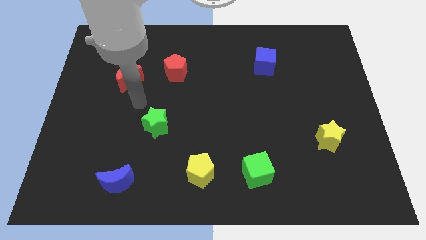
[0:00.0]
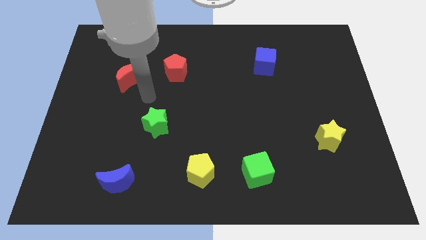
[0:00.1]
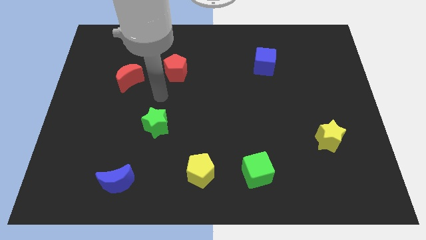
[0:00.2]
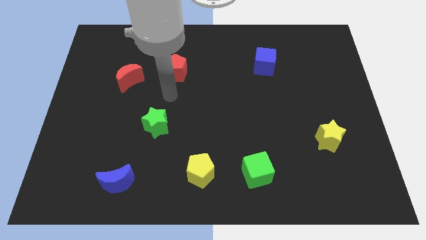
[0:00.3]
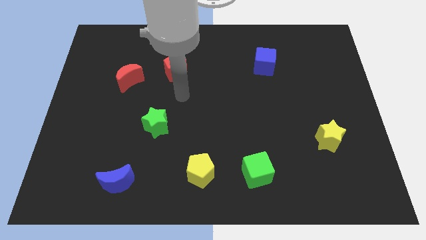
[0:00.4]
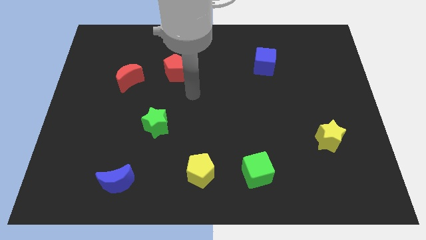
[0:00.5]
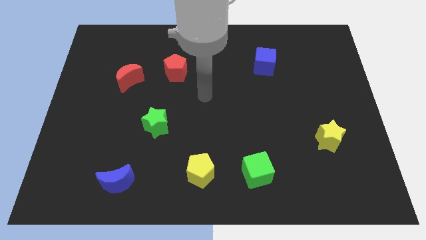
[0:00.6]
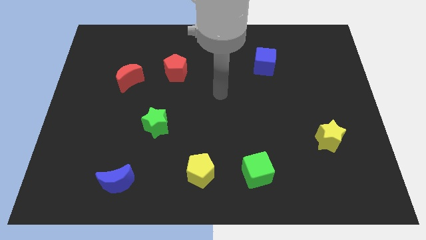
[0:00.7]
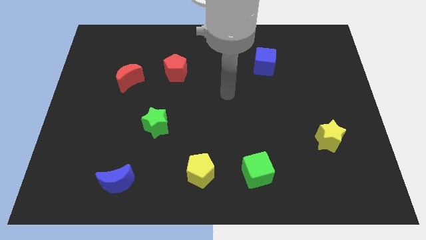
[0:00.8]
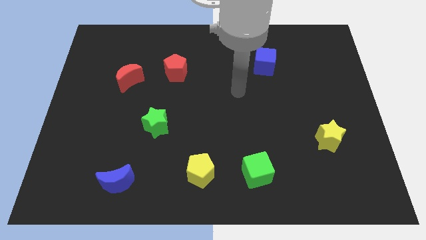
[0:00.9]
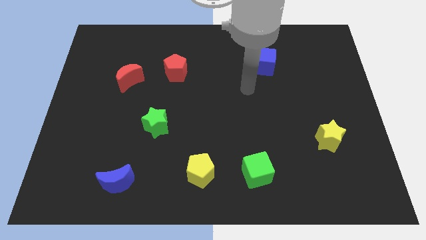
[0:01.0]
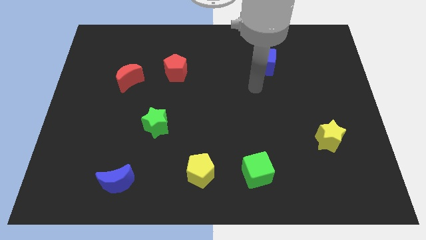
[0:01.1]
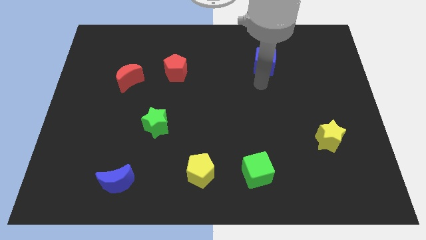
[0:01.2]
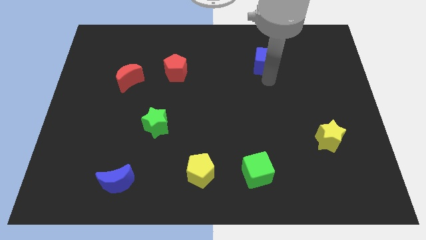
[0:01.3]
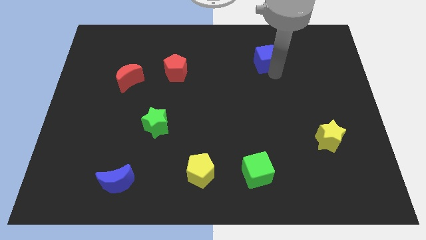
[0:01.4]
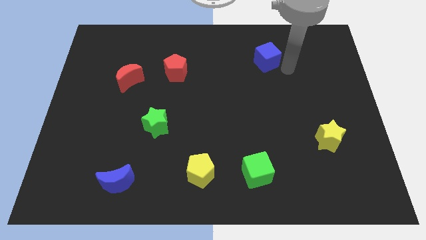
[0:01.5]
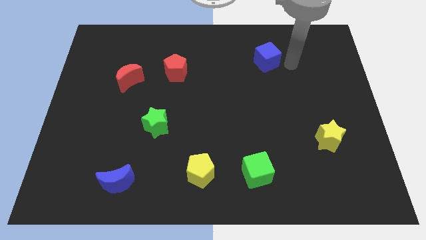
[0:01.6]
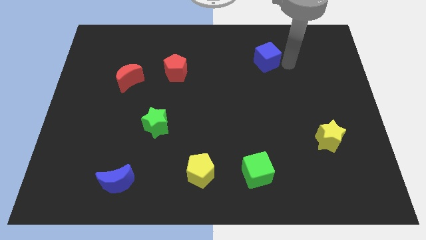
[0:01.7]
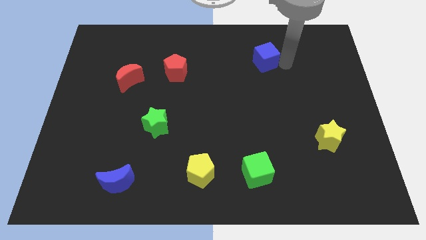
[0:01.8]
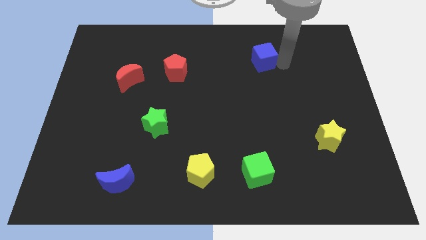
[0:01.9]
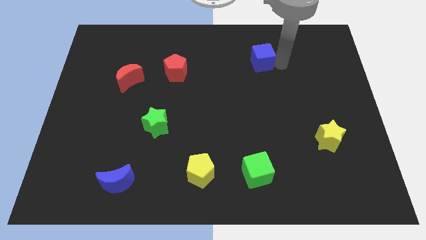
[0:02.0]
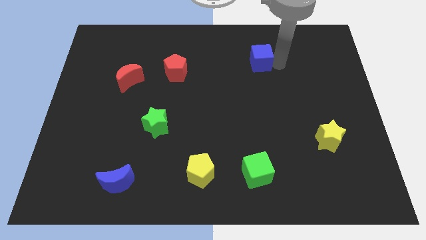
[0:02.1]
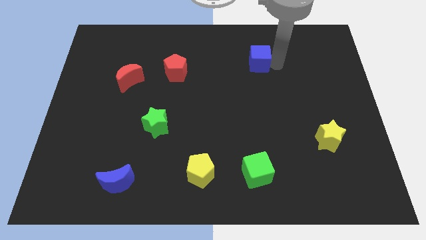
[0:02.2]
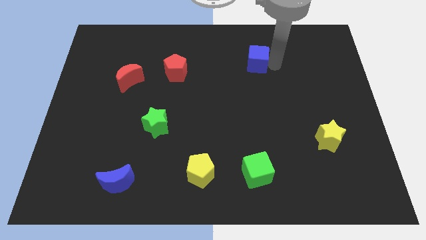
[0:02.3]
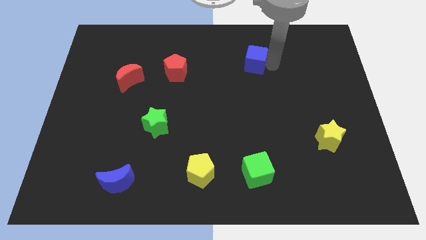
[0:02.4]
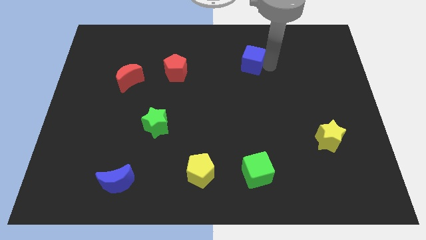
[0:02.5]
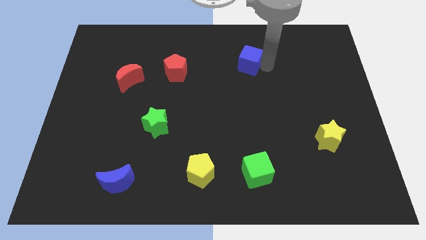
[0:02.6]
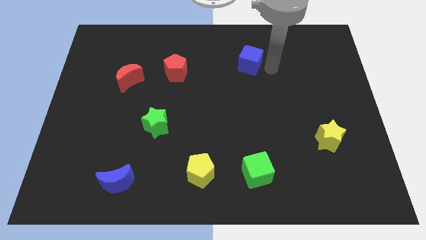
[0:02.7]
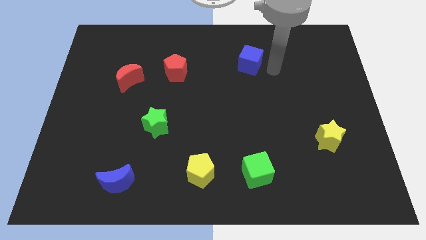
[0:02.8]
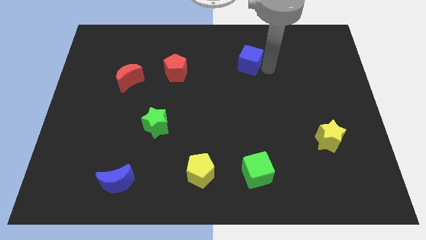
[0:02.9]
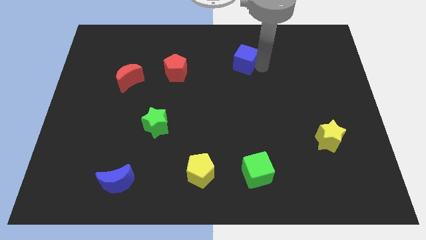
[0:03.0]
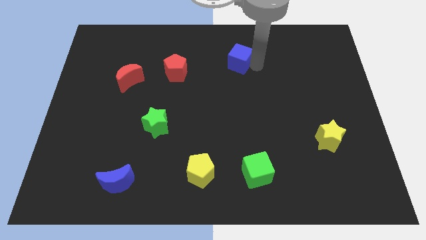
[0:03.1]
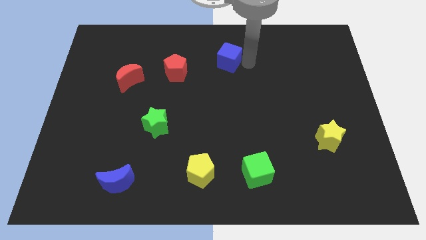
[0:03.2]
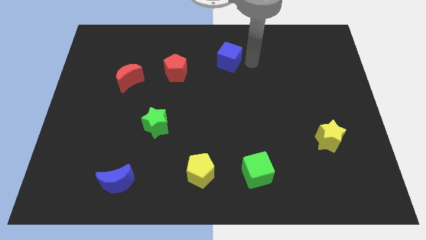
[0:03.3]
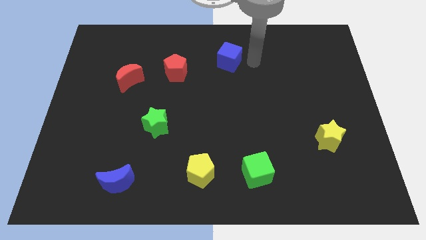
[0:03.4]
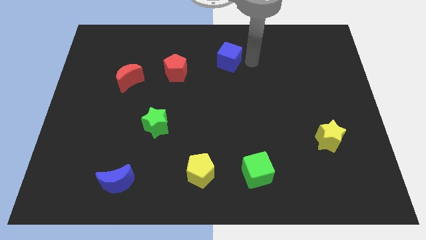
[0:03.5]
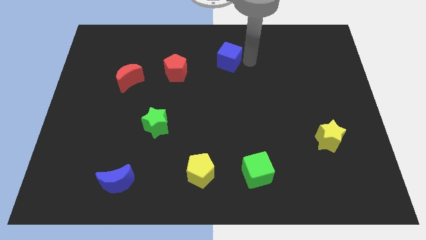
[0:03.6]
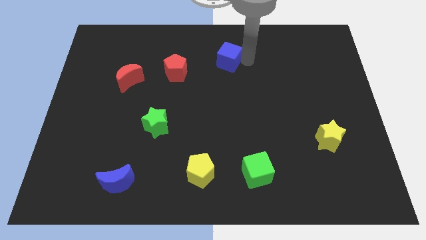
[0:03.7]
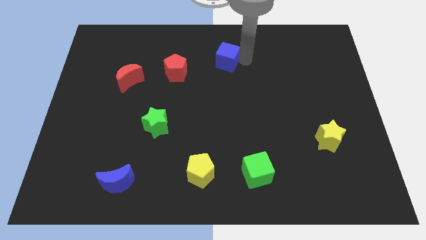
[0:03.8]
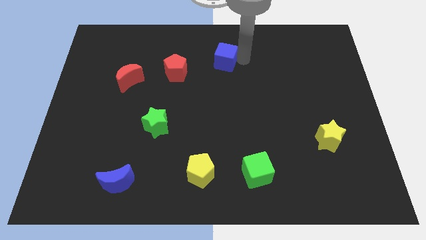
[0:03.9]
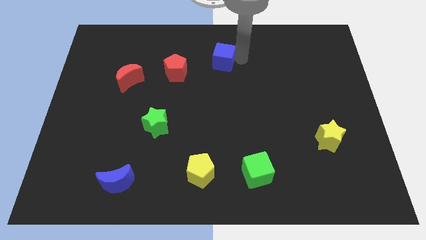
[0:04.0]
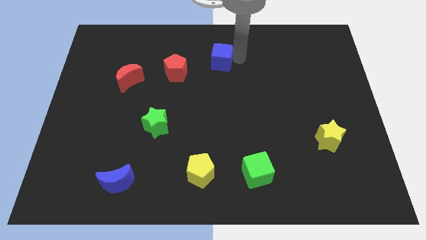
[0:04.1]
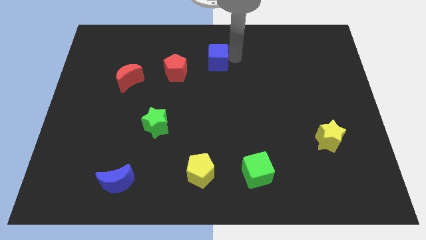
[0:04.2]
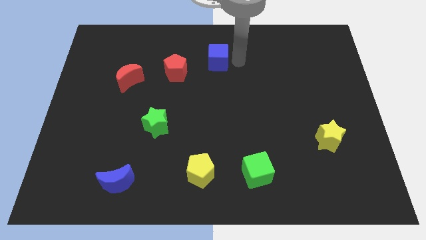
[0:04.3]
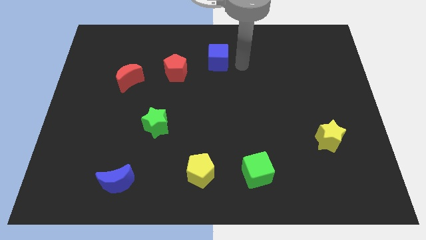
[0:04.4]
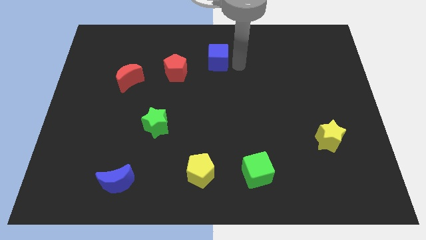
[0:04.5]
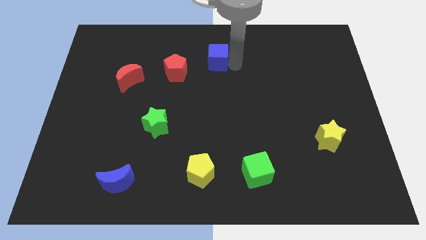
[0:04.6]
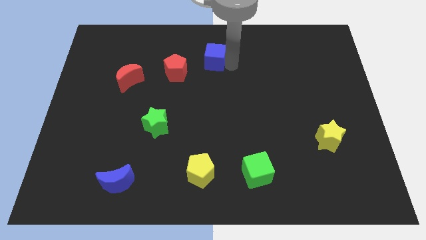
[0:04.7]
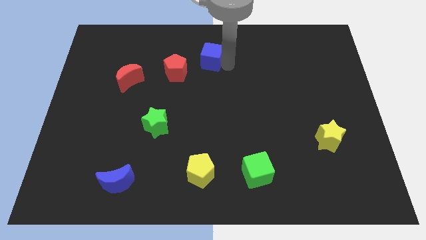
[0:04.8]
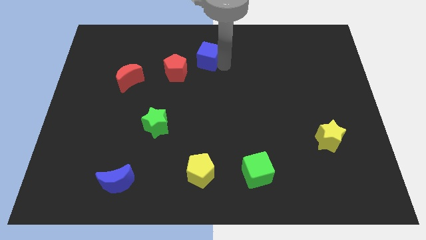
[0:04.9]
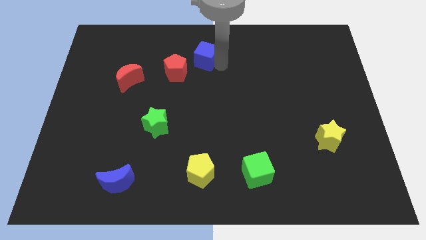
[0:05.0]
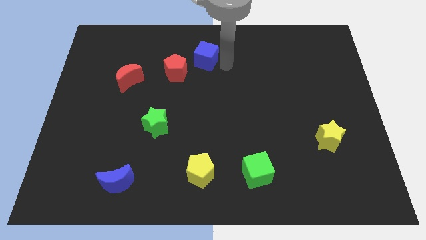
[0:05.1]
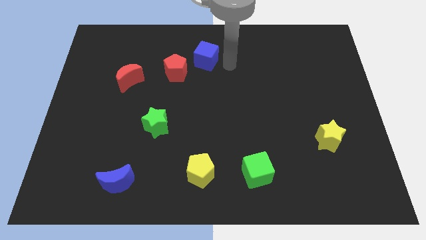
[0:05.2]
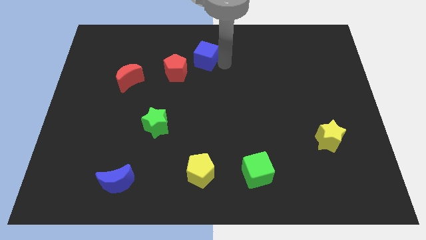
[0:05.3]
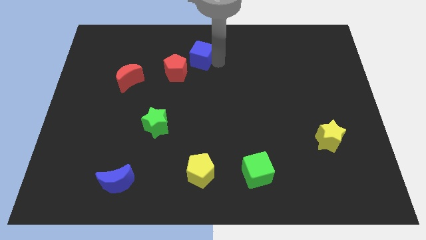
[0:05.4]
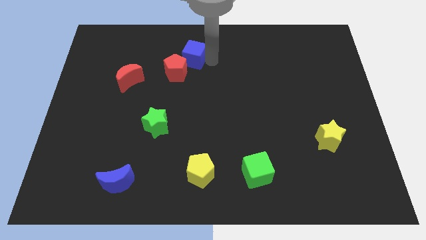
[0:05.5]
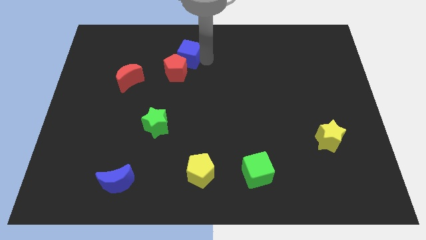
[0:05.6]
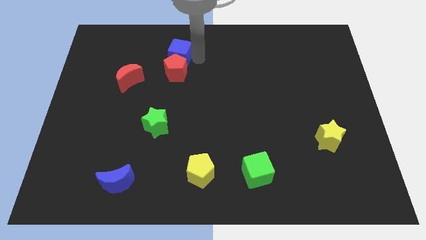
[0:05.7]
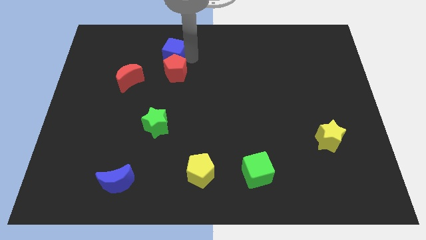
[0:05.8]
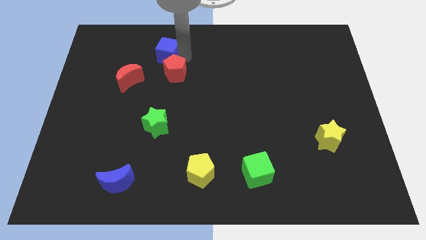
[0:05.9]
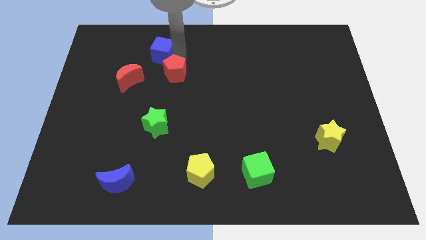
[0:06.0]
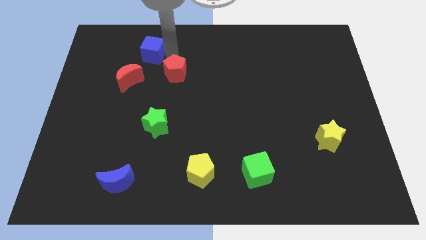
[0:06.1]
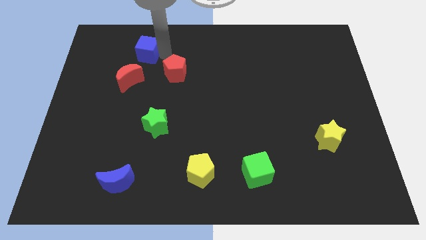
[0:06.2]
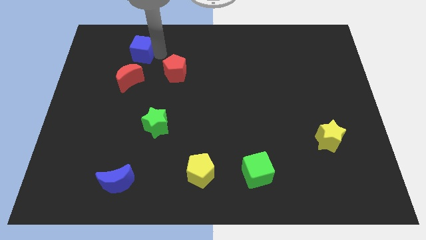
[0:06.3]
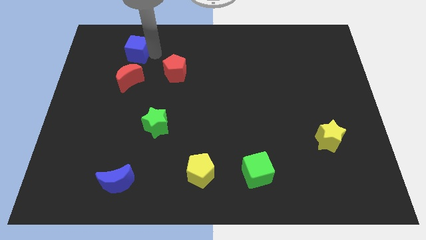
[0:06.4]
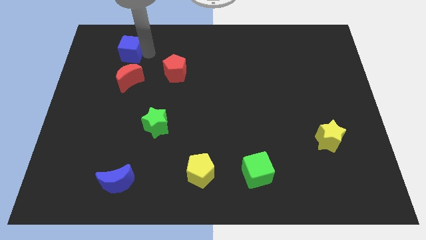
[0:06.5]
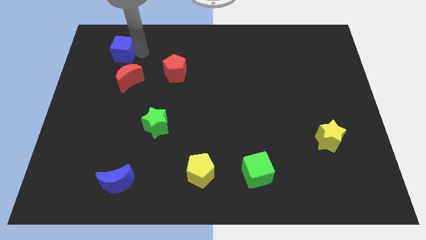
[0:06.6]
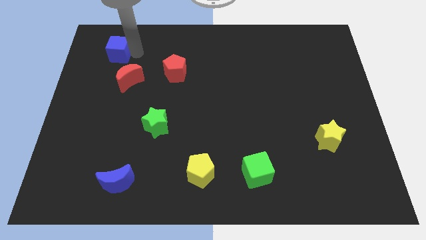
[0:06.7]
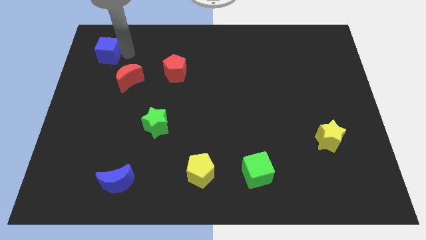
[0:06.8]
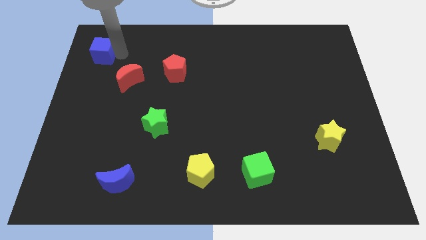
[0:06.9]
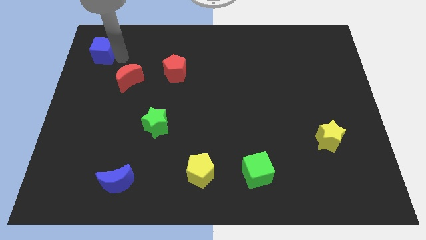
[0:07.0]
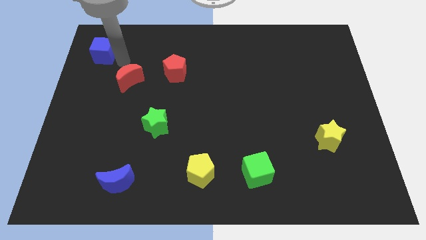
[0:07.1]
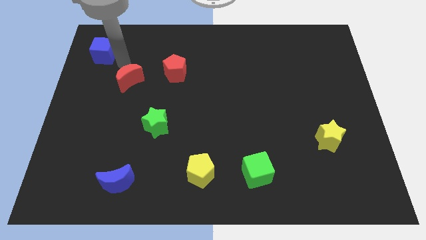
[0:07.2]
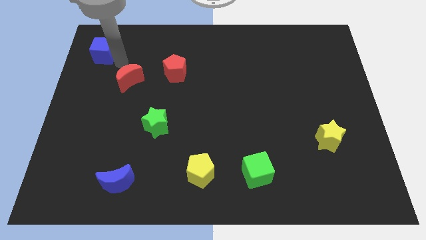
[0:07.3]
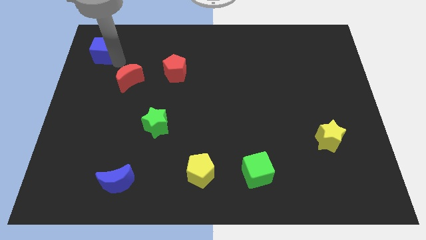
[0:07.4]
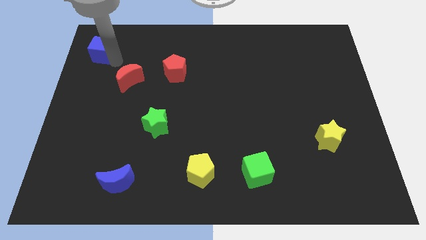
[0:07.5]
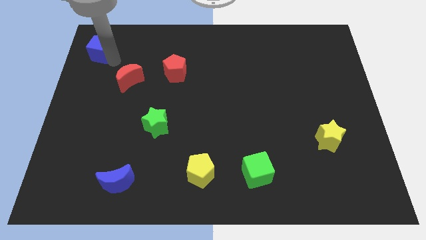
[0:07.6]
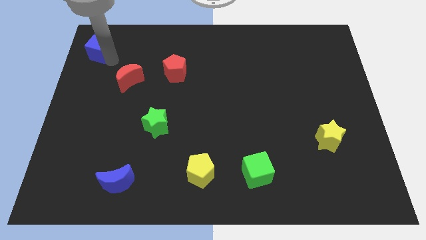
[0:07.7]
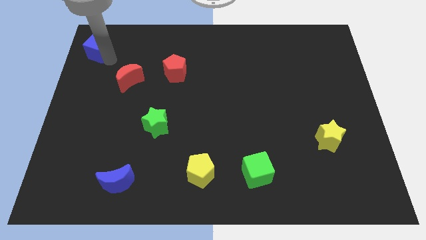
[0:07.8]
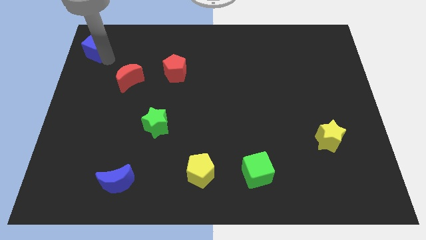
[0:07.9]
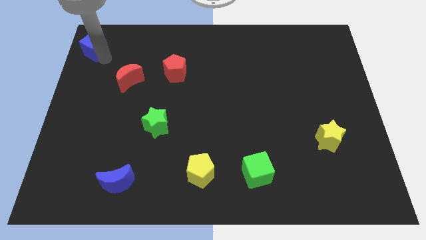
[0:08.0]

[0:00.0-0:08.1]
put the blue cube to the top left
